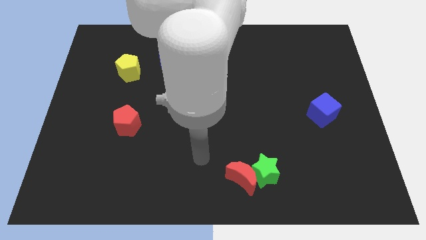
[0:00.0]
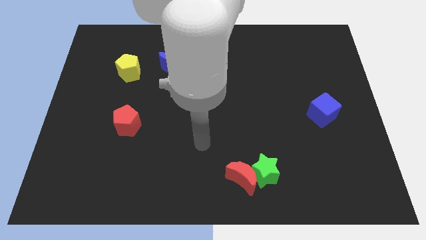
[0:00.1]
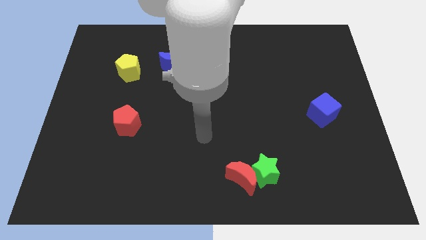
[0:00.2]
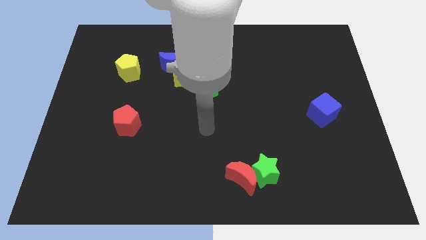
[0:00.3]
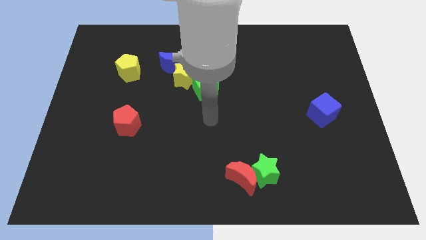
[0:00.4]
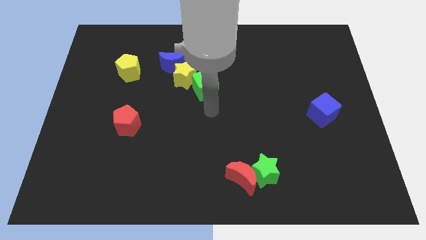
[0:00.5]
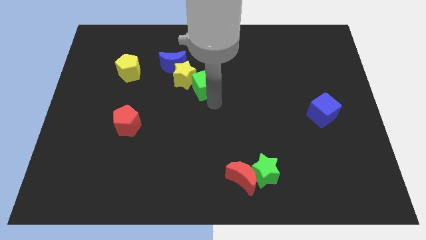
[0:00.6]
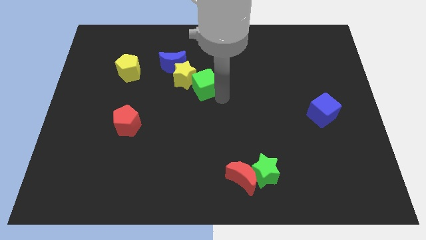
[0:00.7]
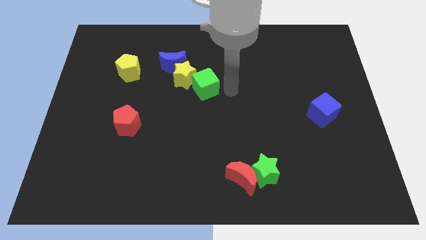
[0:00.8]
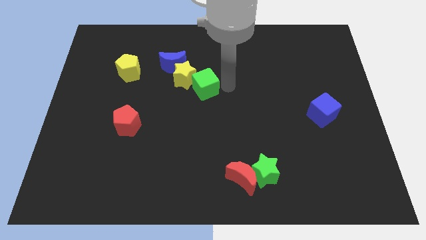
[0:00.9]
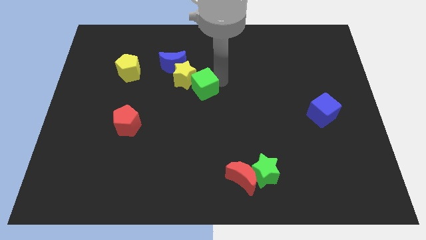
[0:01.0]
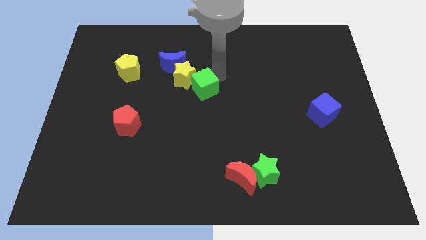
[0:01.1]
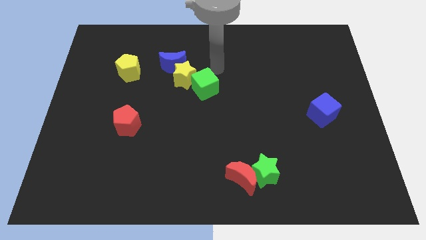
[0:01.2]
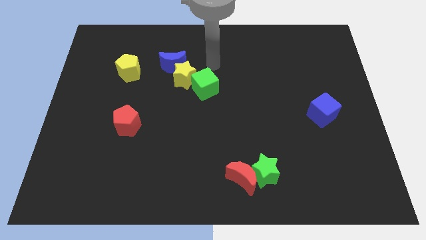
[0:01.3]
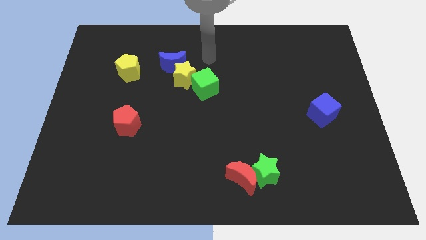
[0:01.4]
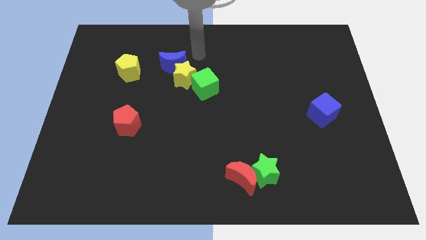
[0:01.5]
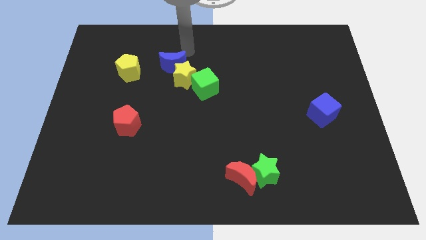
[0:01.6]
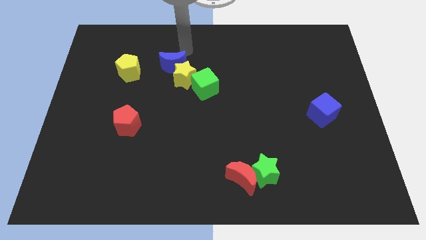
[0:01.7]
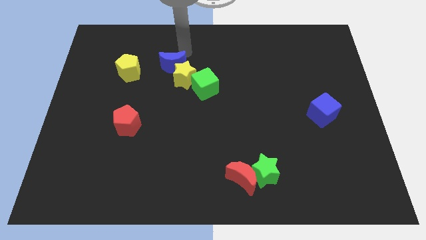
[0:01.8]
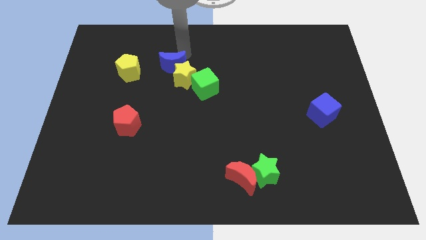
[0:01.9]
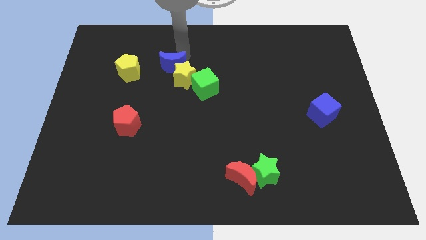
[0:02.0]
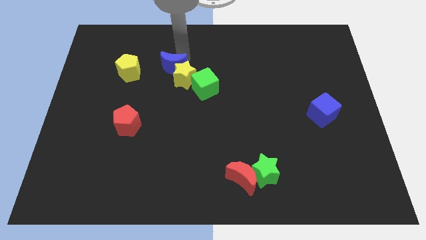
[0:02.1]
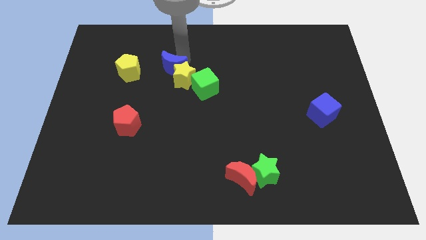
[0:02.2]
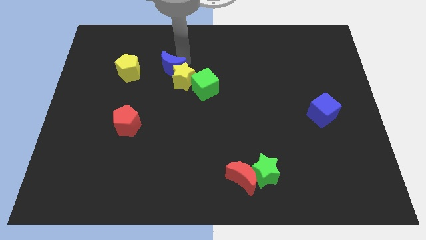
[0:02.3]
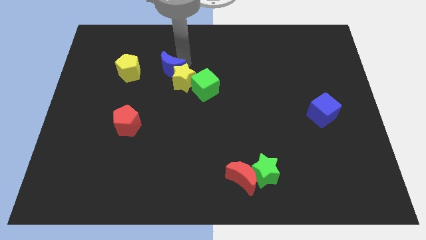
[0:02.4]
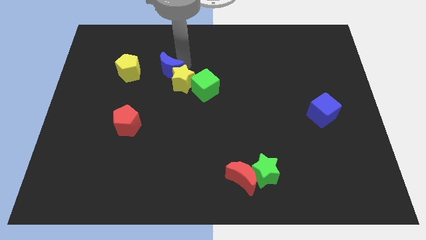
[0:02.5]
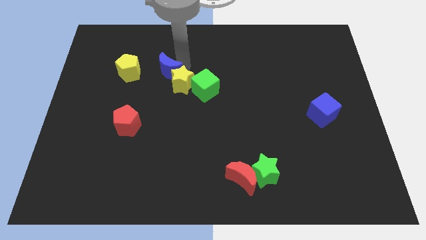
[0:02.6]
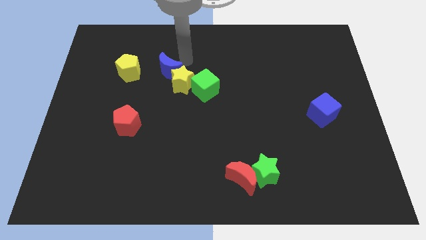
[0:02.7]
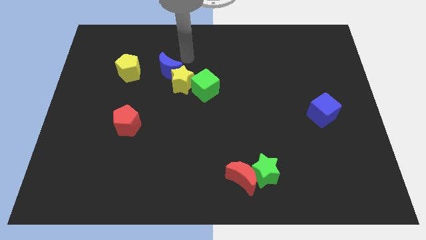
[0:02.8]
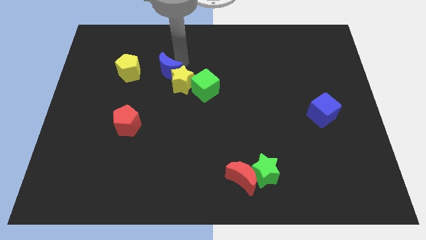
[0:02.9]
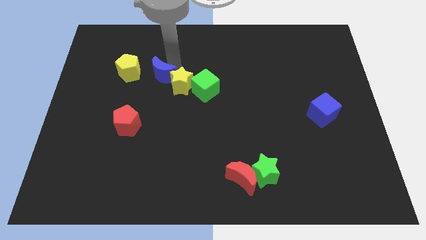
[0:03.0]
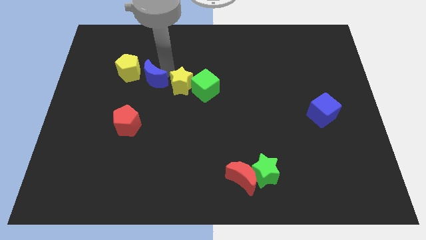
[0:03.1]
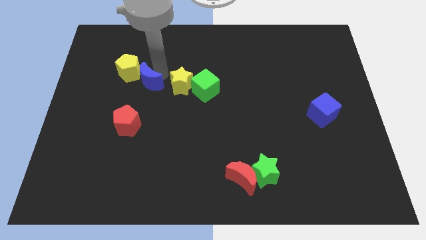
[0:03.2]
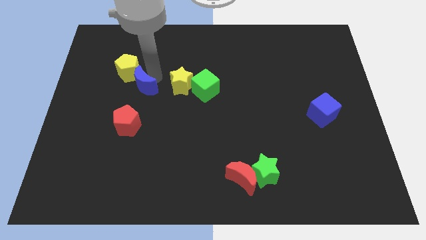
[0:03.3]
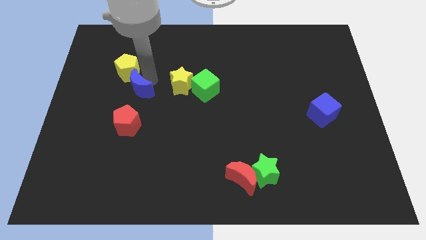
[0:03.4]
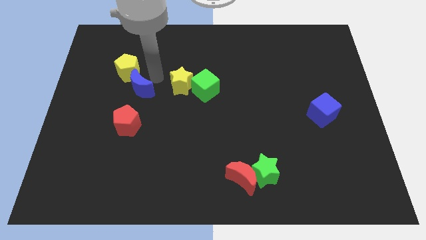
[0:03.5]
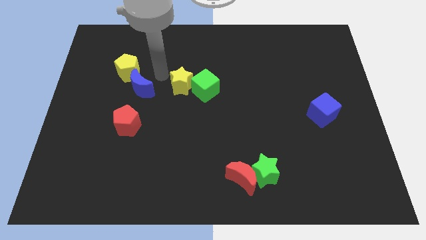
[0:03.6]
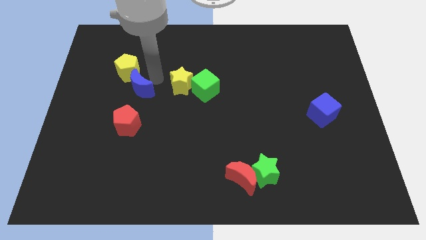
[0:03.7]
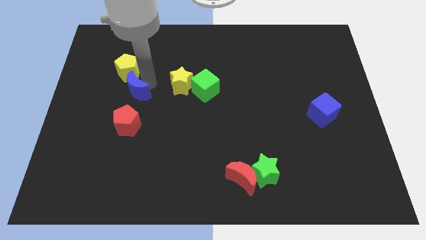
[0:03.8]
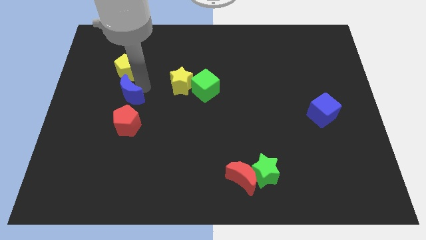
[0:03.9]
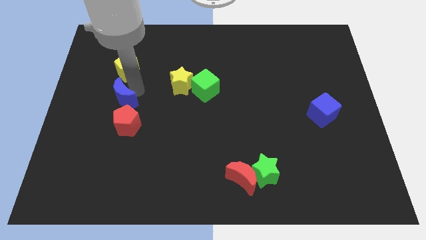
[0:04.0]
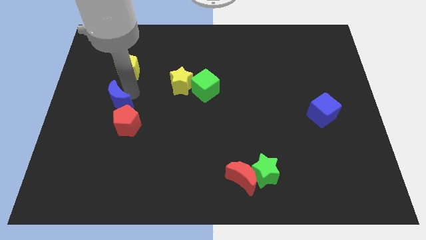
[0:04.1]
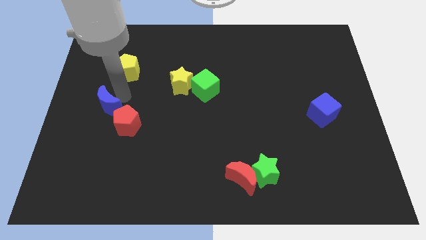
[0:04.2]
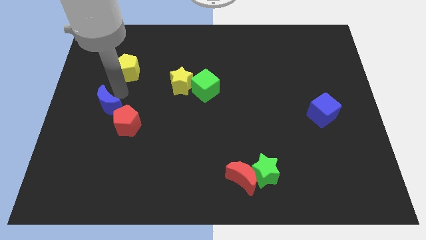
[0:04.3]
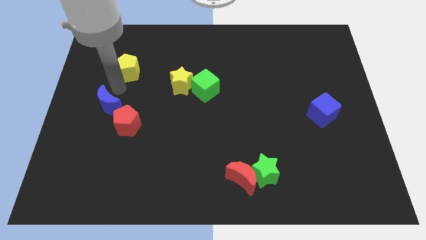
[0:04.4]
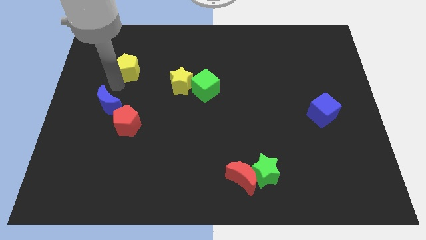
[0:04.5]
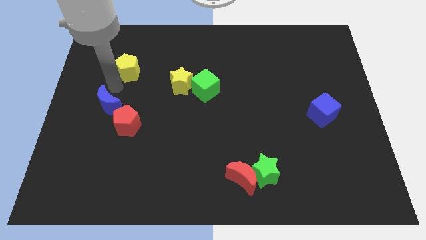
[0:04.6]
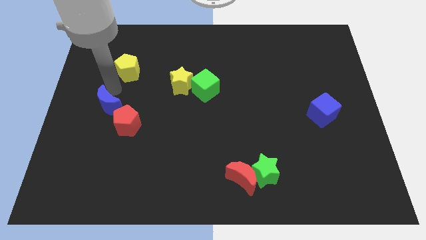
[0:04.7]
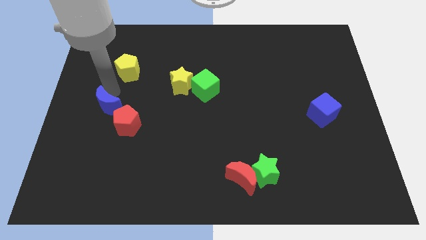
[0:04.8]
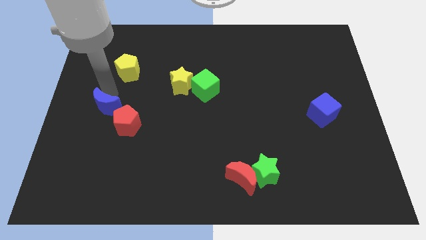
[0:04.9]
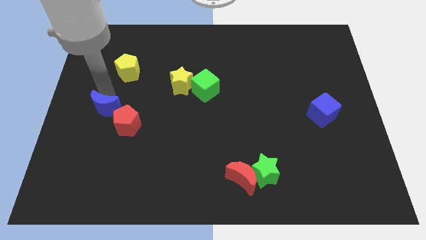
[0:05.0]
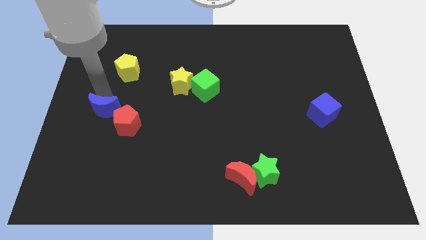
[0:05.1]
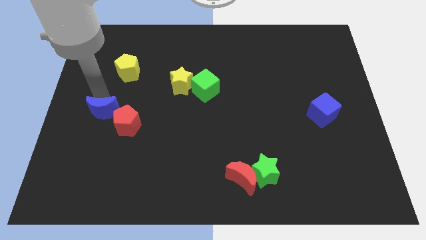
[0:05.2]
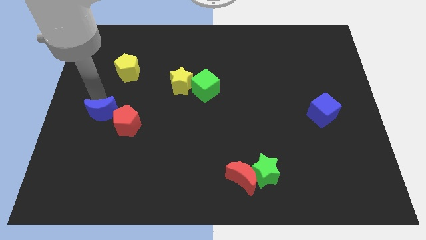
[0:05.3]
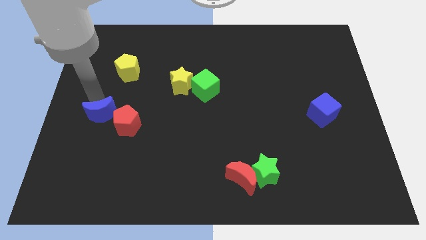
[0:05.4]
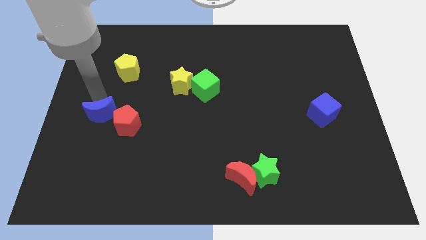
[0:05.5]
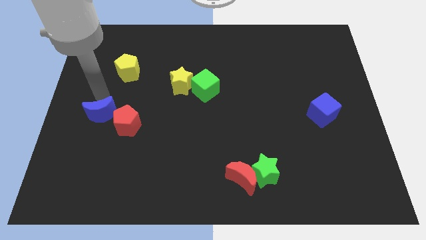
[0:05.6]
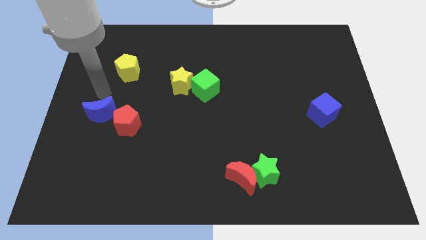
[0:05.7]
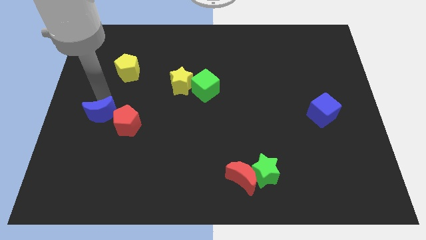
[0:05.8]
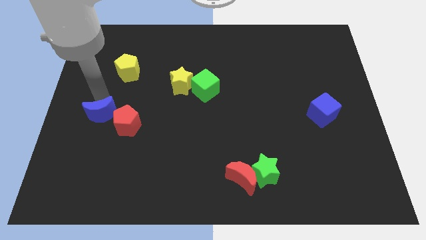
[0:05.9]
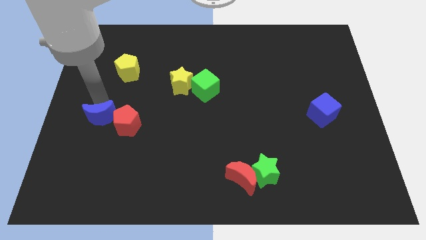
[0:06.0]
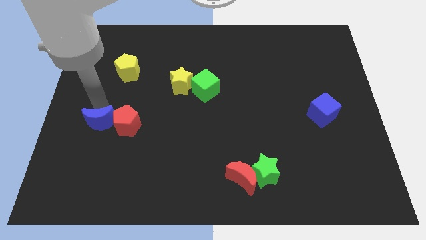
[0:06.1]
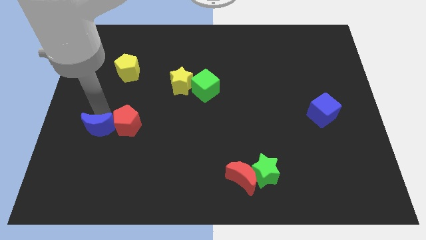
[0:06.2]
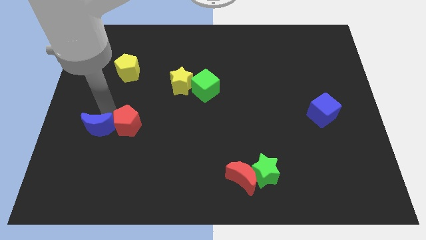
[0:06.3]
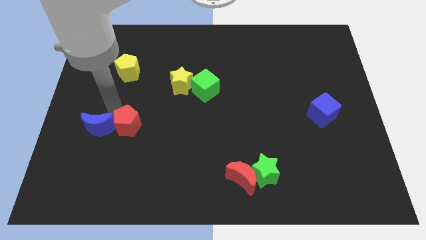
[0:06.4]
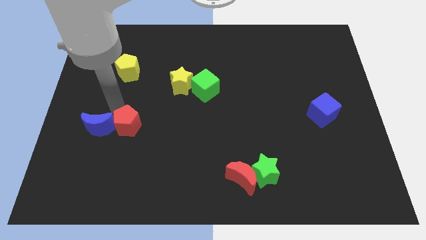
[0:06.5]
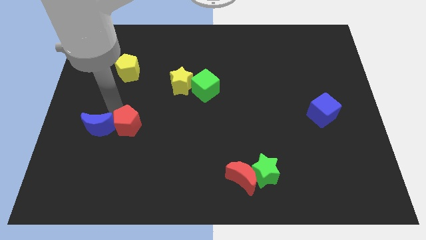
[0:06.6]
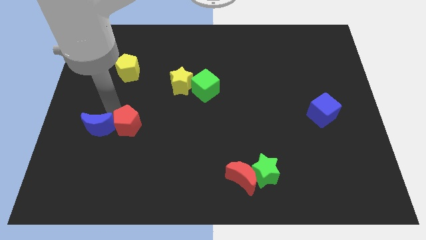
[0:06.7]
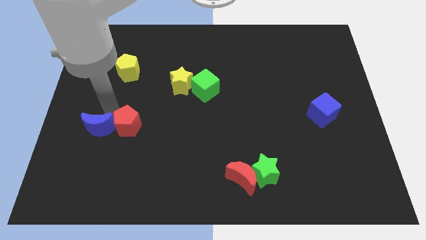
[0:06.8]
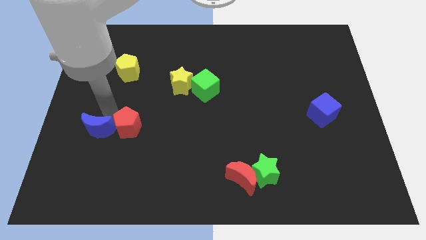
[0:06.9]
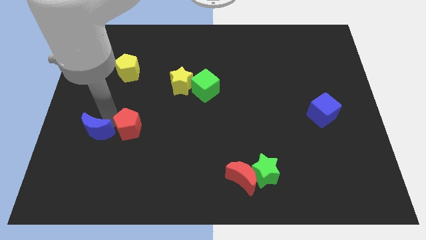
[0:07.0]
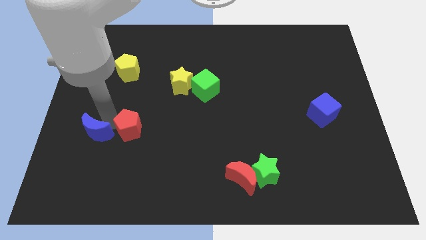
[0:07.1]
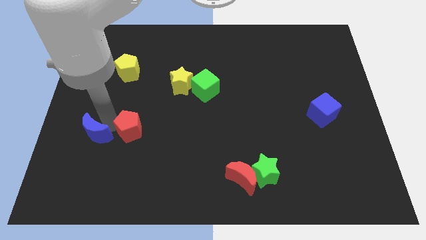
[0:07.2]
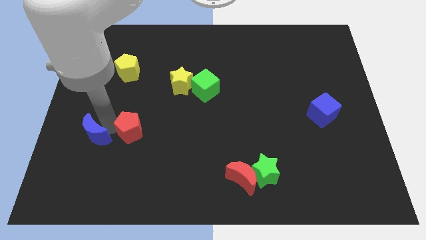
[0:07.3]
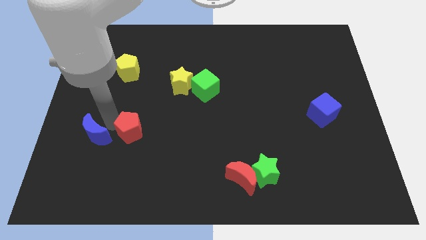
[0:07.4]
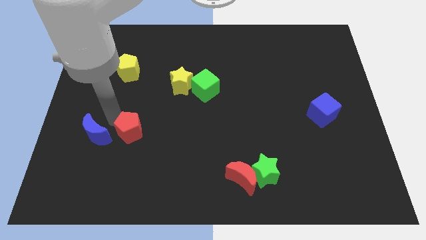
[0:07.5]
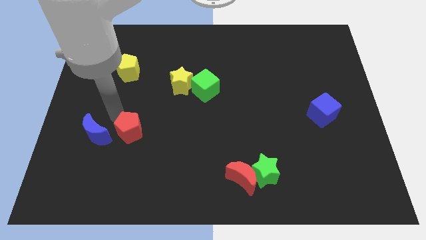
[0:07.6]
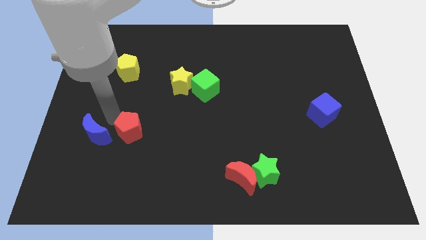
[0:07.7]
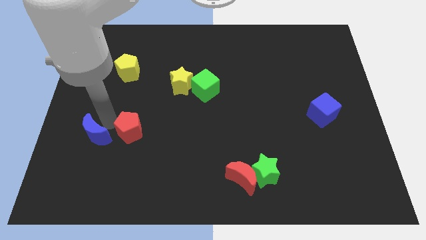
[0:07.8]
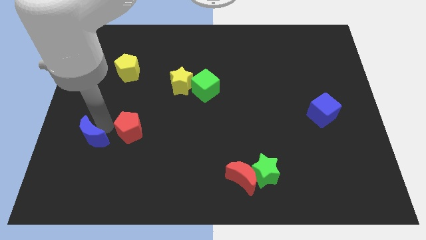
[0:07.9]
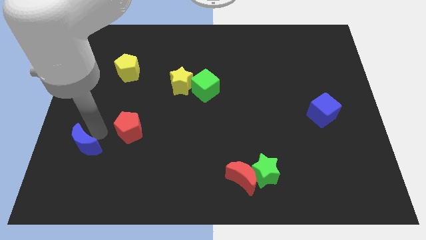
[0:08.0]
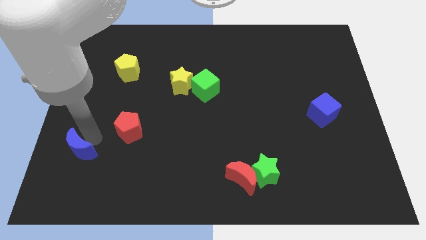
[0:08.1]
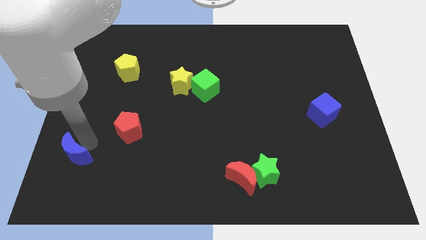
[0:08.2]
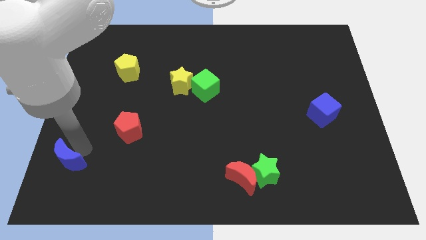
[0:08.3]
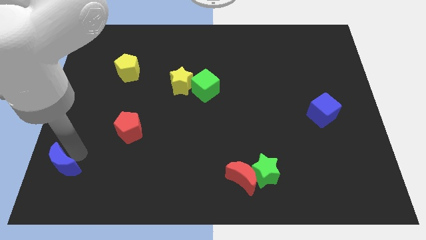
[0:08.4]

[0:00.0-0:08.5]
move the blue moon to the bottom left of the board
